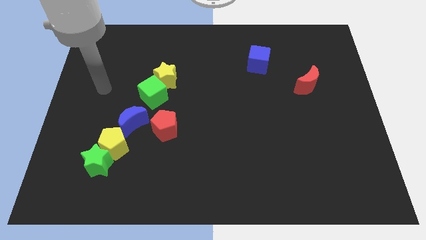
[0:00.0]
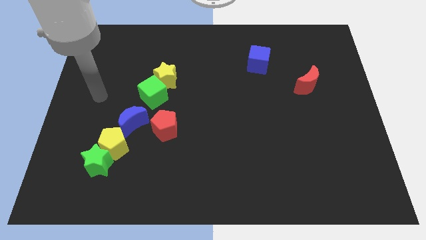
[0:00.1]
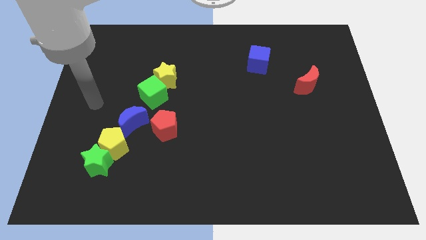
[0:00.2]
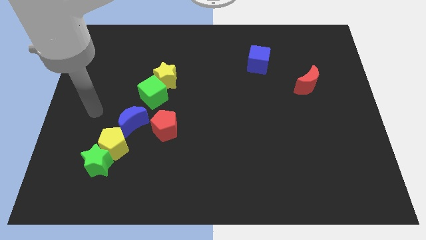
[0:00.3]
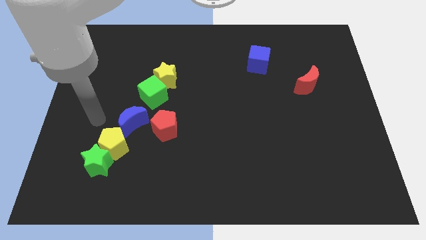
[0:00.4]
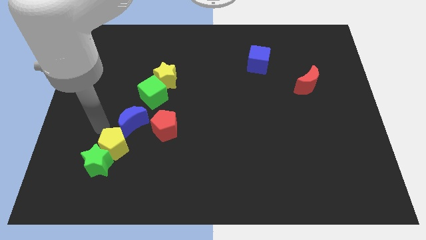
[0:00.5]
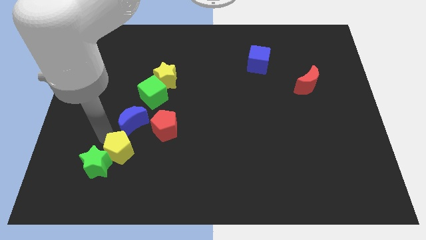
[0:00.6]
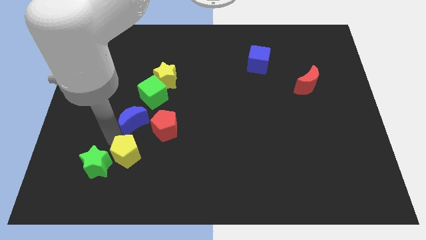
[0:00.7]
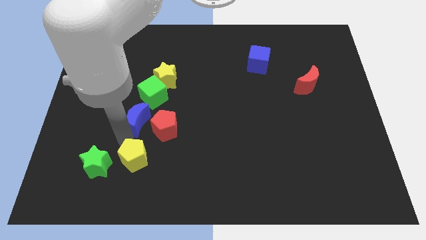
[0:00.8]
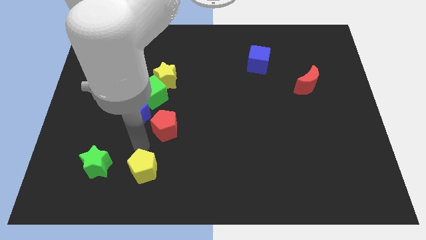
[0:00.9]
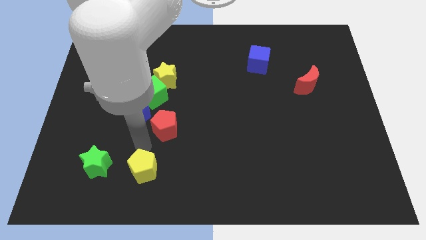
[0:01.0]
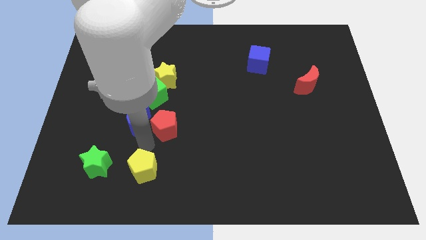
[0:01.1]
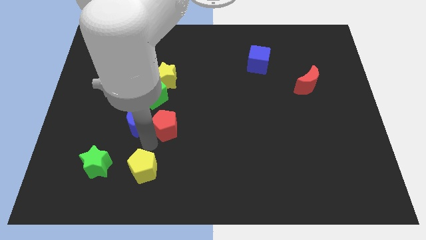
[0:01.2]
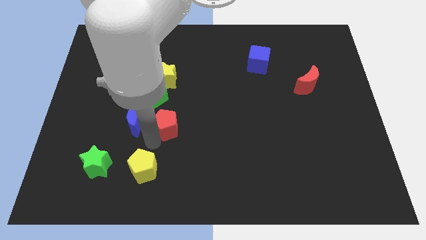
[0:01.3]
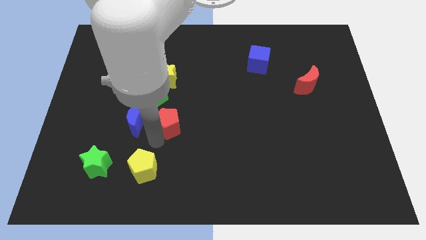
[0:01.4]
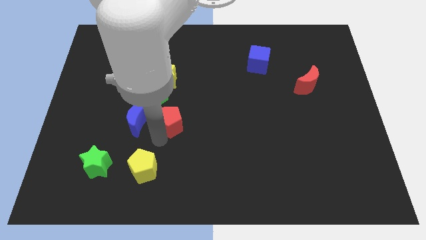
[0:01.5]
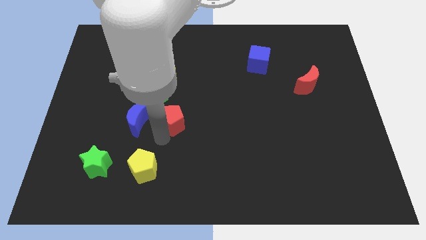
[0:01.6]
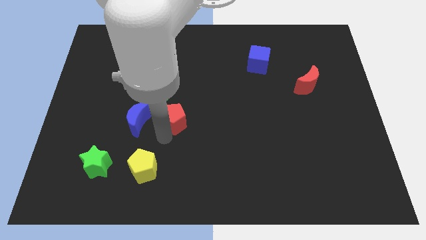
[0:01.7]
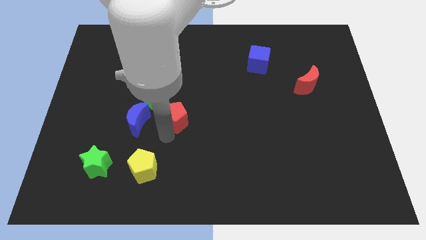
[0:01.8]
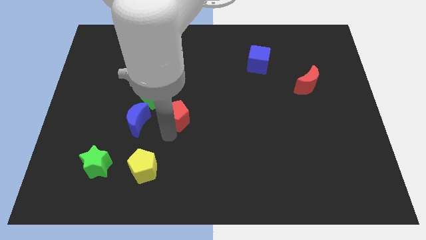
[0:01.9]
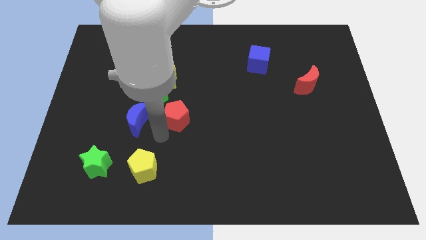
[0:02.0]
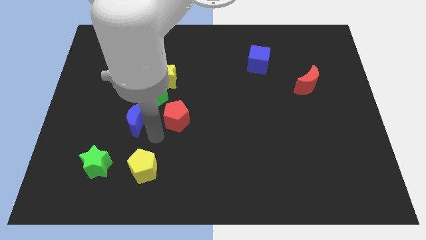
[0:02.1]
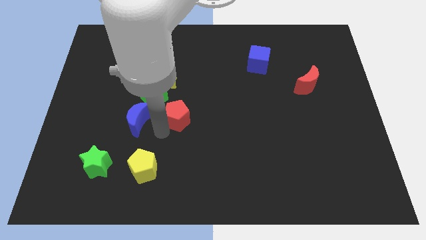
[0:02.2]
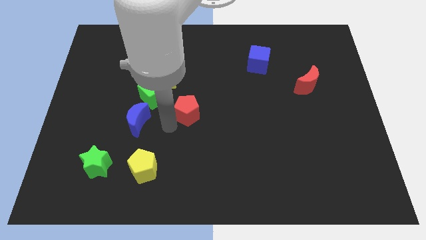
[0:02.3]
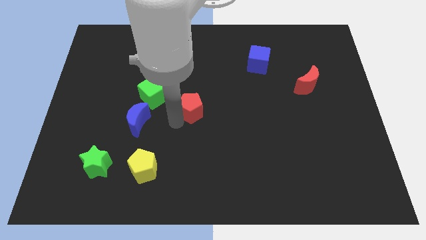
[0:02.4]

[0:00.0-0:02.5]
slide the red pentagon upwards and then to the right somewhat

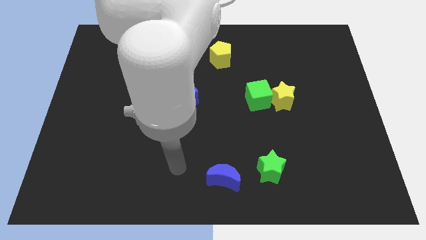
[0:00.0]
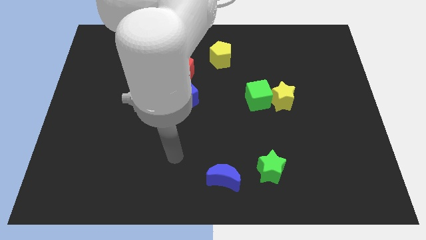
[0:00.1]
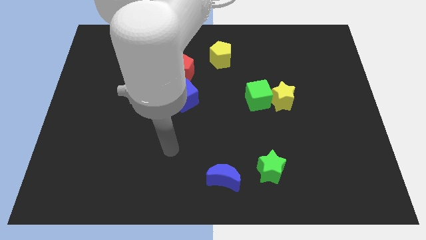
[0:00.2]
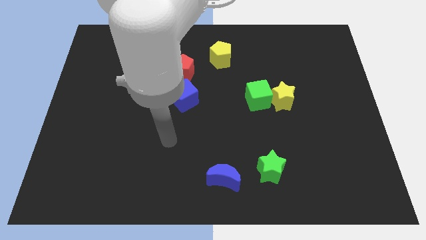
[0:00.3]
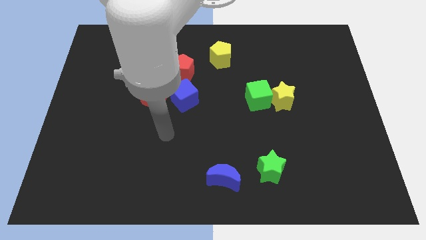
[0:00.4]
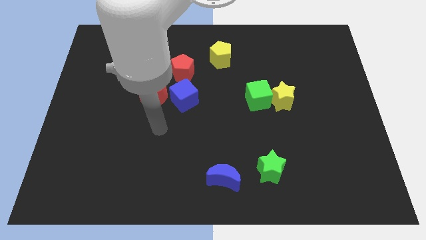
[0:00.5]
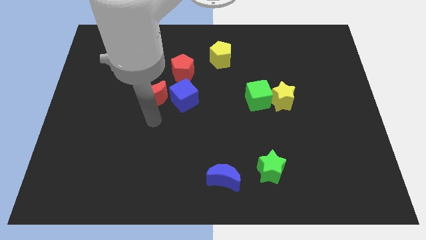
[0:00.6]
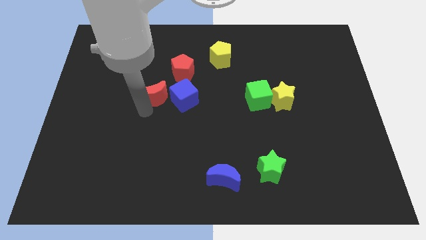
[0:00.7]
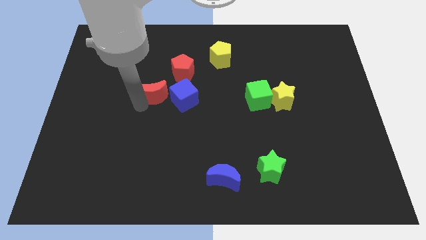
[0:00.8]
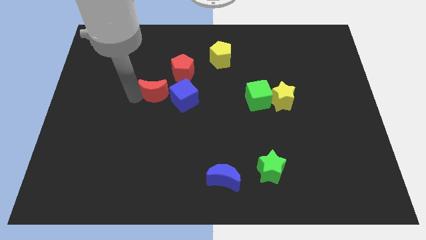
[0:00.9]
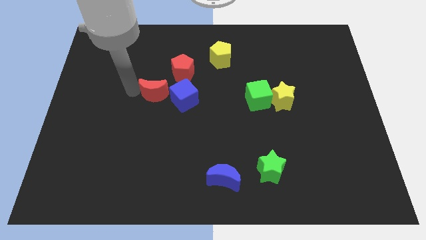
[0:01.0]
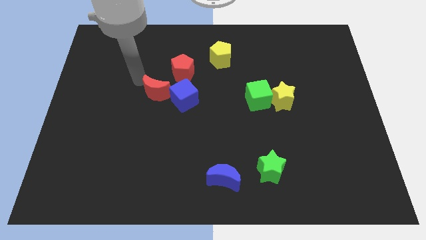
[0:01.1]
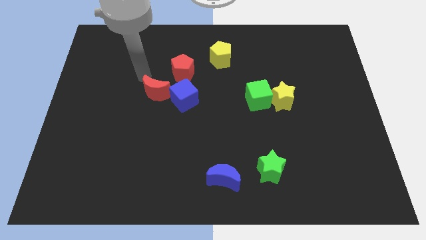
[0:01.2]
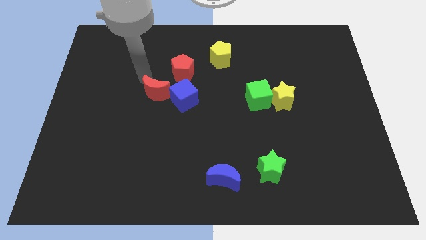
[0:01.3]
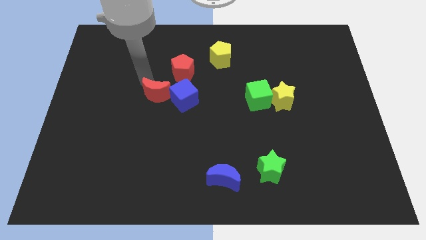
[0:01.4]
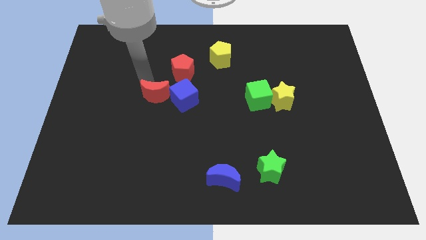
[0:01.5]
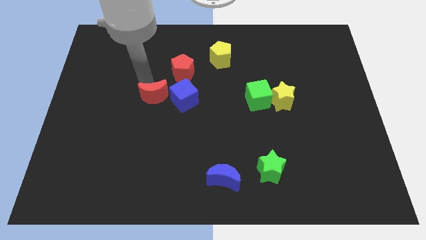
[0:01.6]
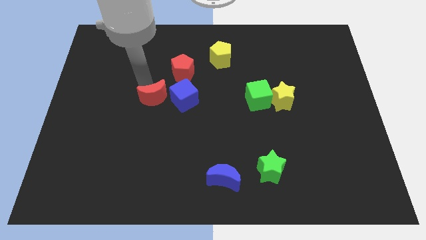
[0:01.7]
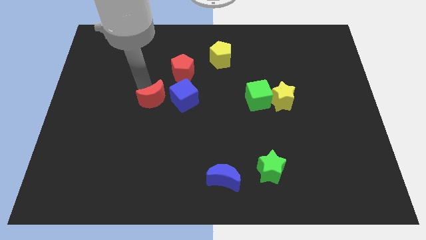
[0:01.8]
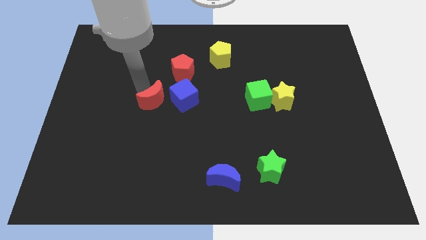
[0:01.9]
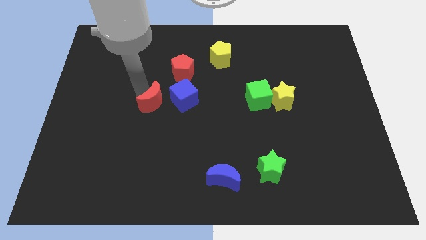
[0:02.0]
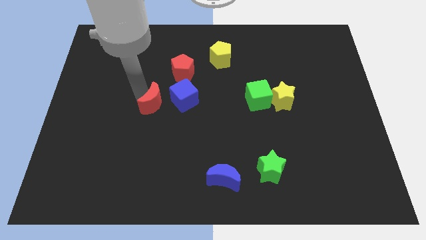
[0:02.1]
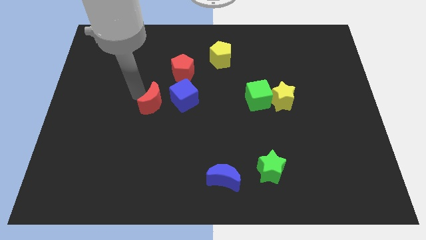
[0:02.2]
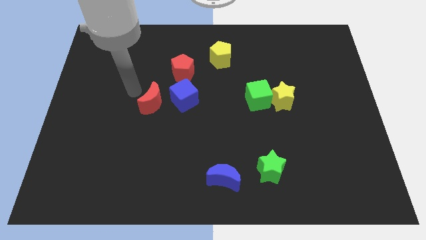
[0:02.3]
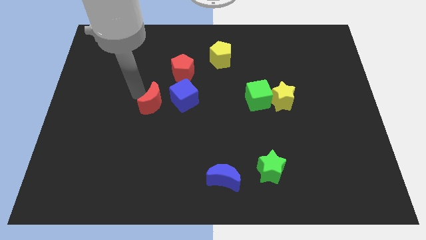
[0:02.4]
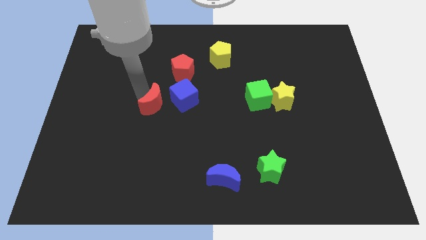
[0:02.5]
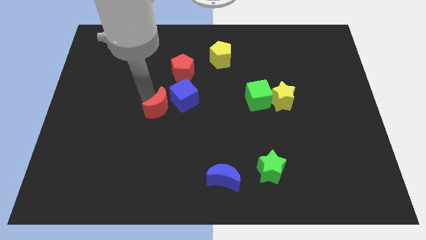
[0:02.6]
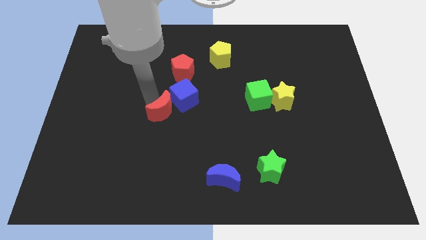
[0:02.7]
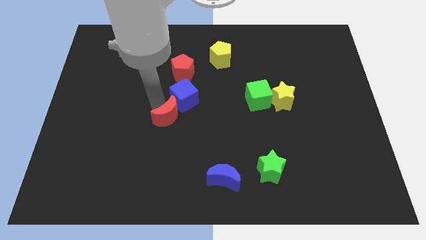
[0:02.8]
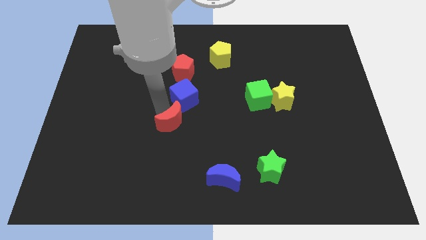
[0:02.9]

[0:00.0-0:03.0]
slightly push the red moon diagonally downwards and right

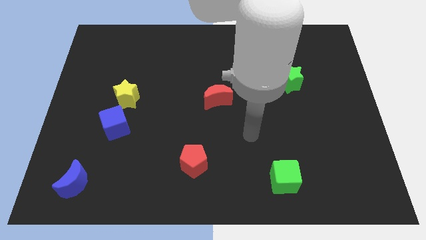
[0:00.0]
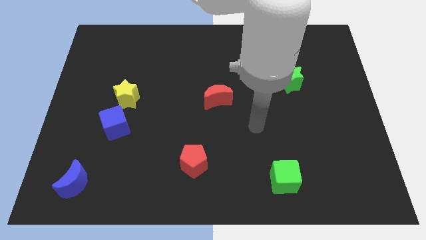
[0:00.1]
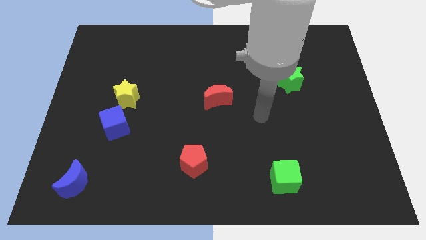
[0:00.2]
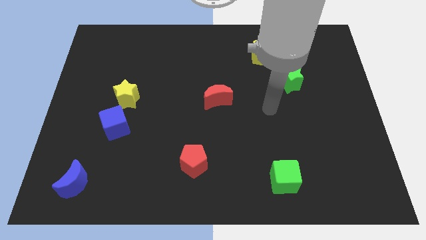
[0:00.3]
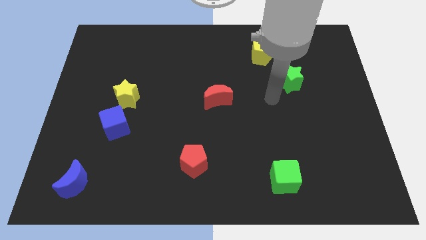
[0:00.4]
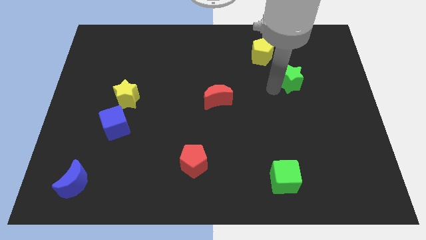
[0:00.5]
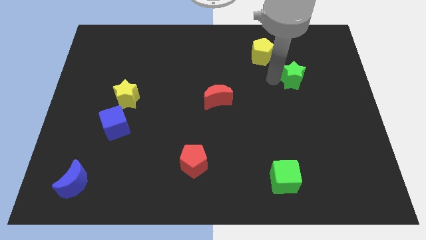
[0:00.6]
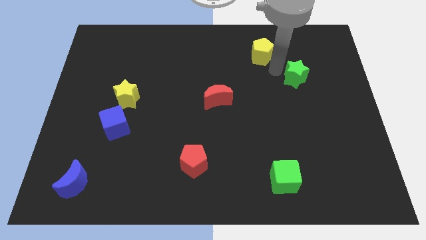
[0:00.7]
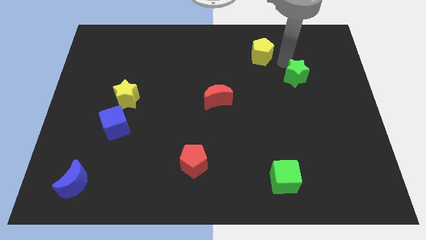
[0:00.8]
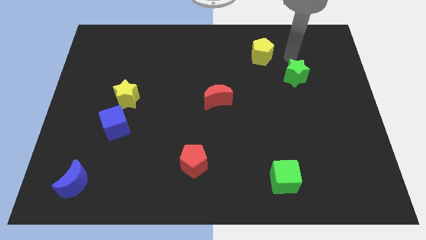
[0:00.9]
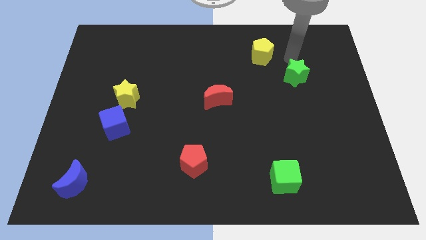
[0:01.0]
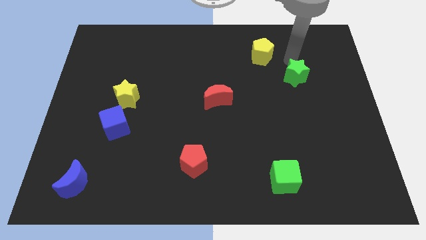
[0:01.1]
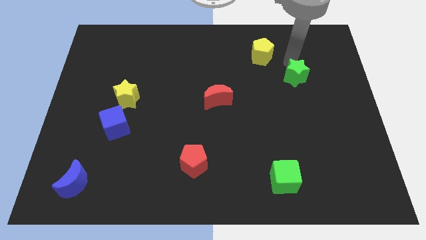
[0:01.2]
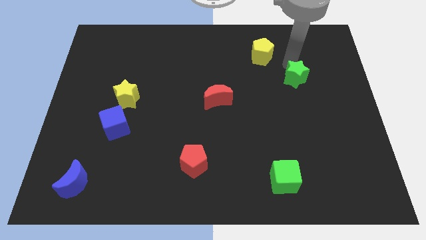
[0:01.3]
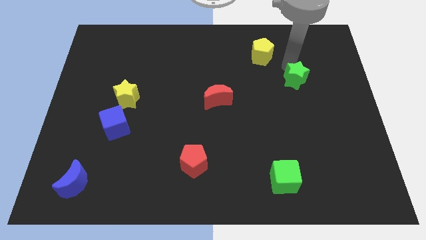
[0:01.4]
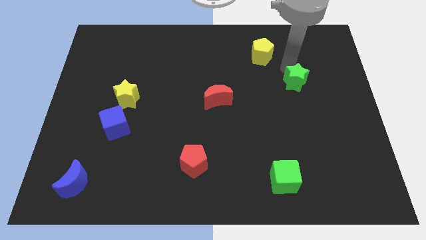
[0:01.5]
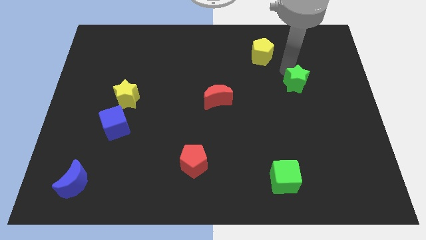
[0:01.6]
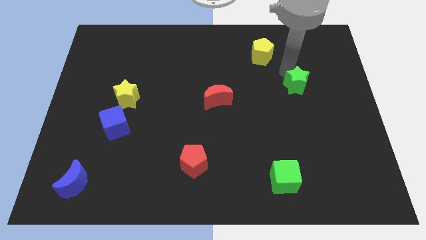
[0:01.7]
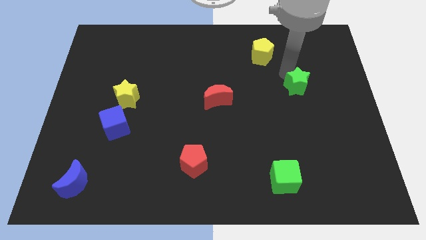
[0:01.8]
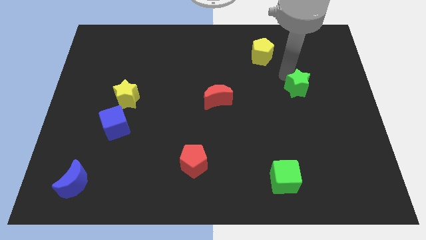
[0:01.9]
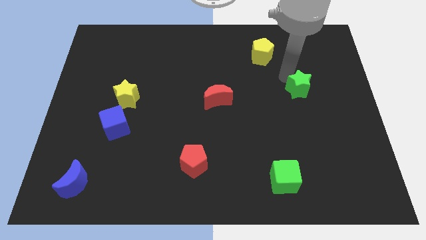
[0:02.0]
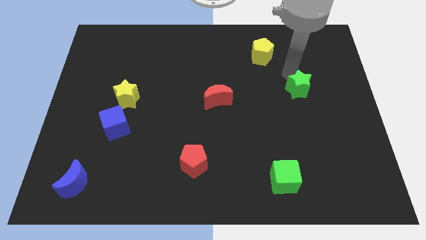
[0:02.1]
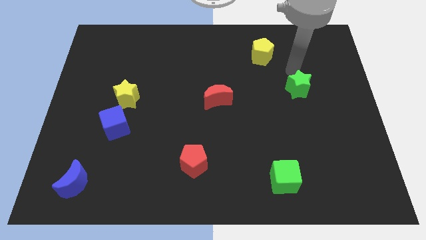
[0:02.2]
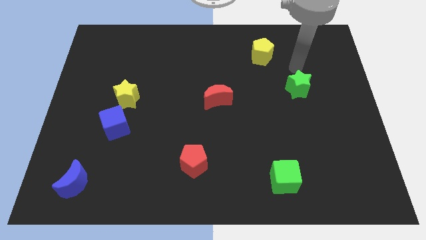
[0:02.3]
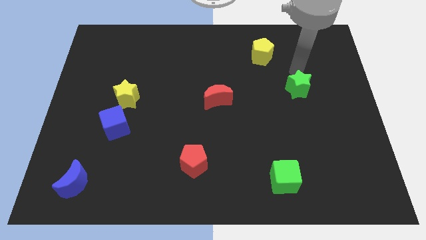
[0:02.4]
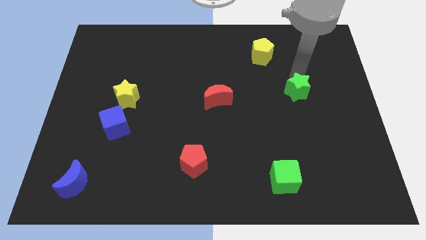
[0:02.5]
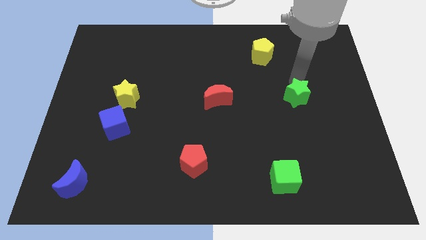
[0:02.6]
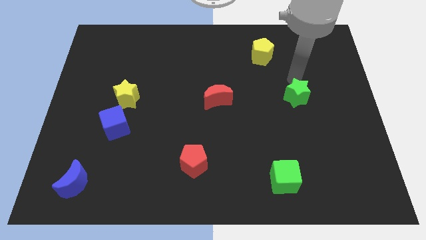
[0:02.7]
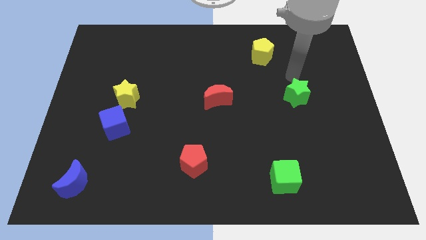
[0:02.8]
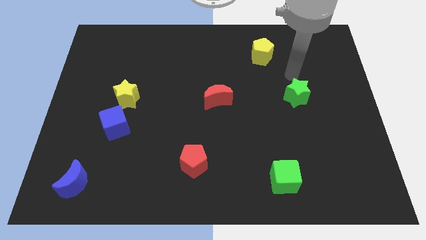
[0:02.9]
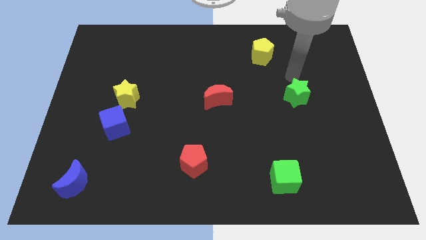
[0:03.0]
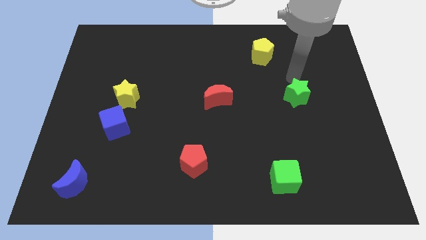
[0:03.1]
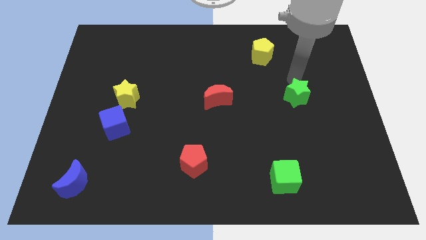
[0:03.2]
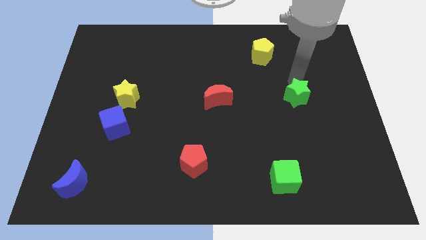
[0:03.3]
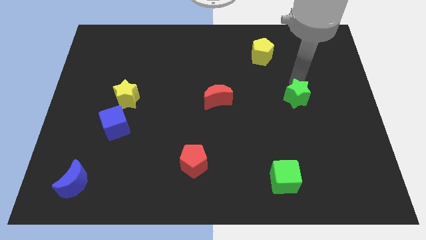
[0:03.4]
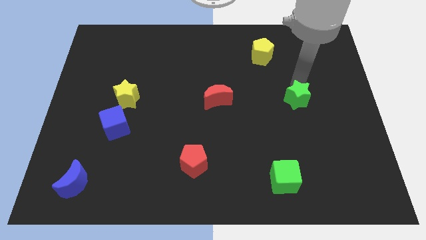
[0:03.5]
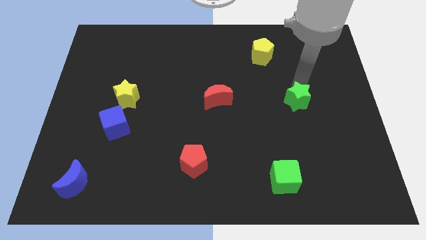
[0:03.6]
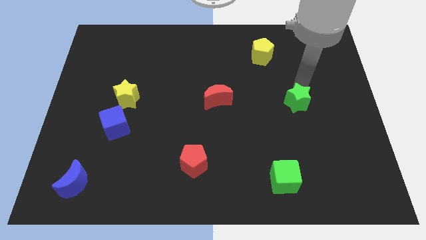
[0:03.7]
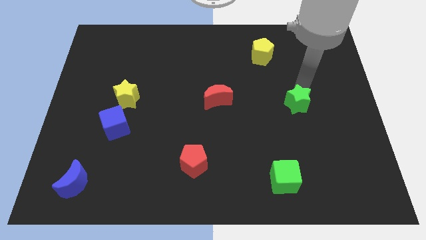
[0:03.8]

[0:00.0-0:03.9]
move the green star slightly down
